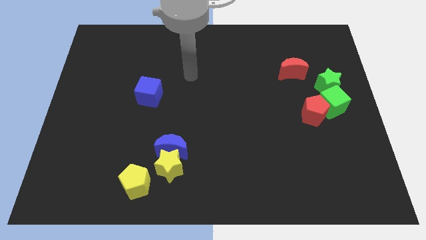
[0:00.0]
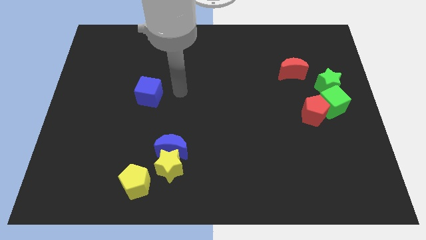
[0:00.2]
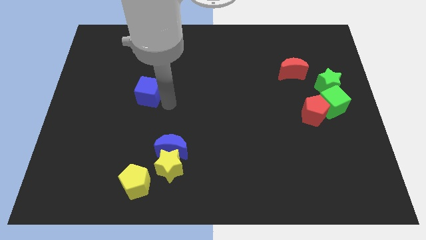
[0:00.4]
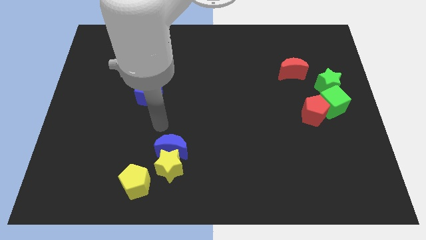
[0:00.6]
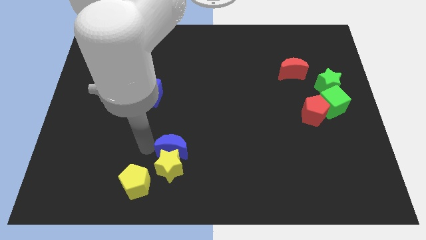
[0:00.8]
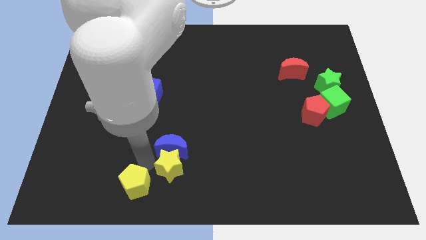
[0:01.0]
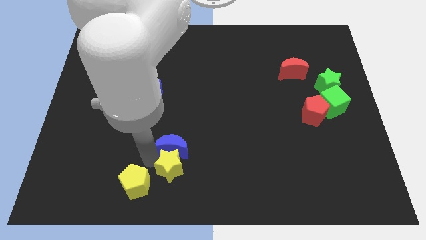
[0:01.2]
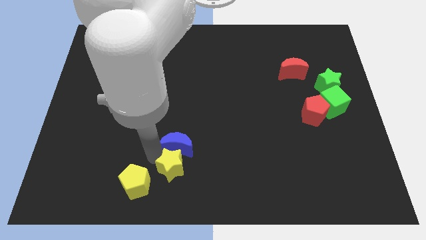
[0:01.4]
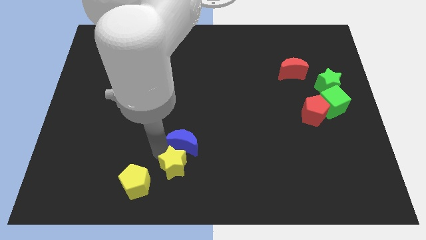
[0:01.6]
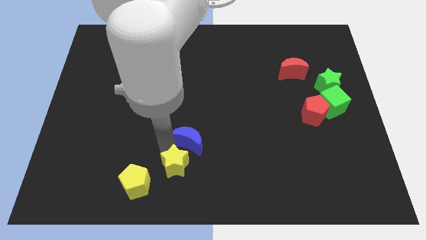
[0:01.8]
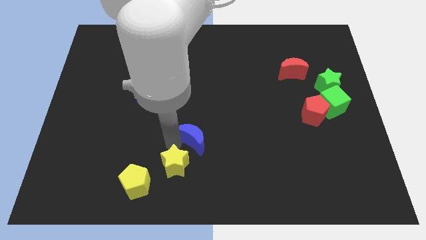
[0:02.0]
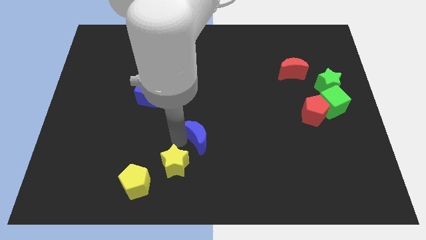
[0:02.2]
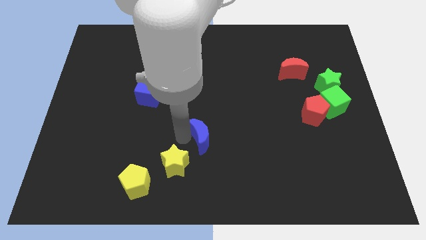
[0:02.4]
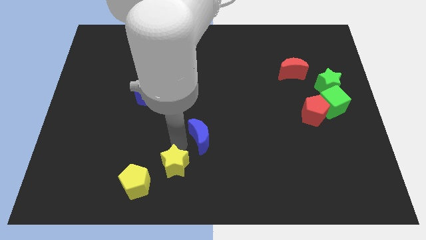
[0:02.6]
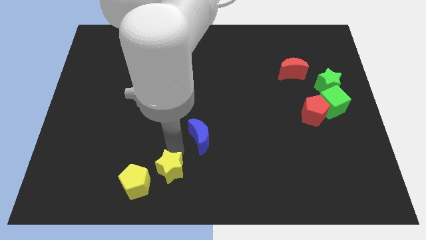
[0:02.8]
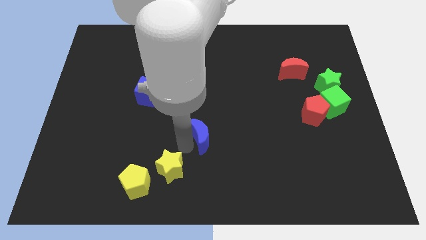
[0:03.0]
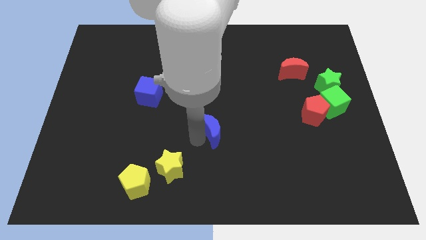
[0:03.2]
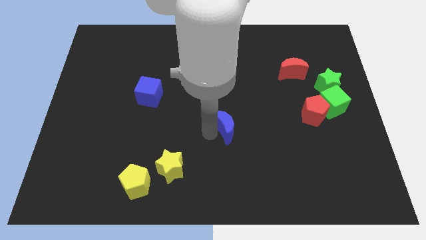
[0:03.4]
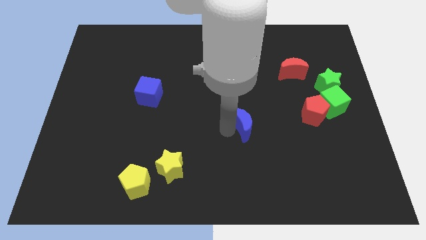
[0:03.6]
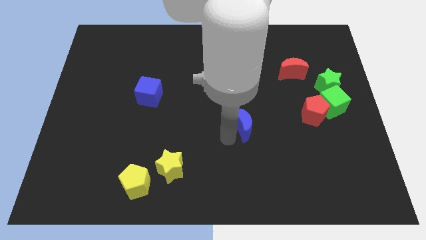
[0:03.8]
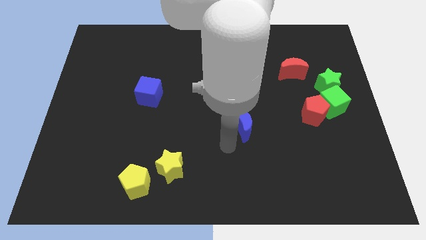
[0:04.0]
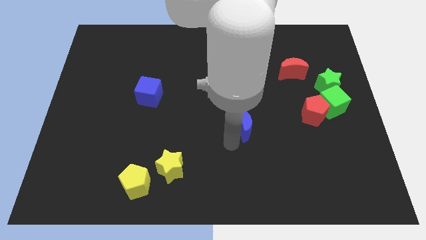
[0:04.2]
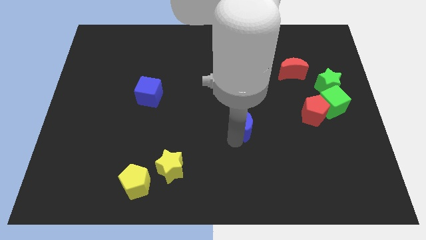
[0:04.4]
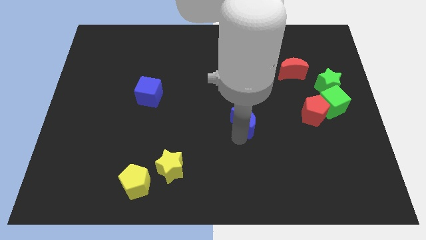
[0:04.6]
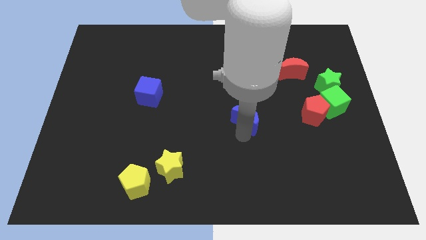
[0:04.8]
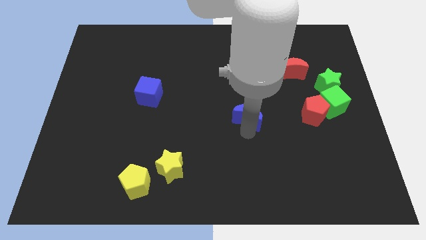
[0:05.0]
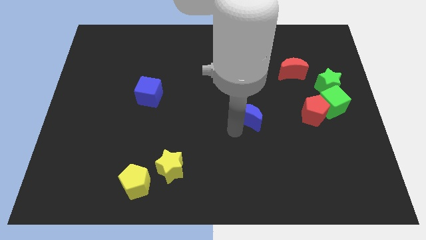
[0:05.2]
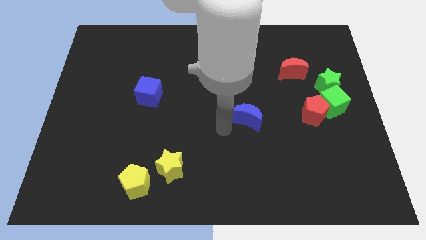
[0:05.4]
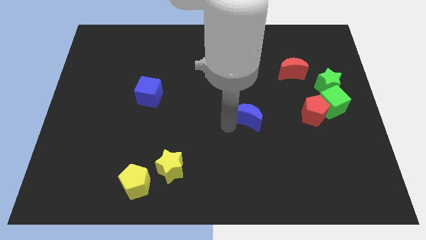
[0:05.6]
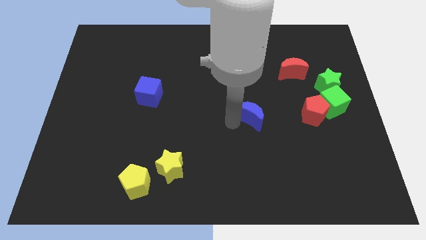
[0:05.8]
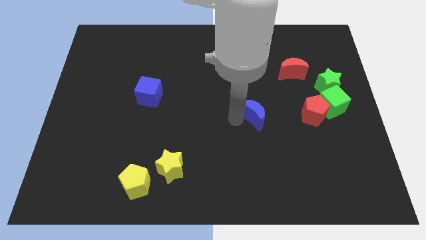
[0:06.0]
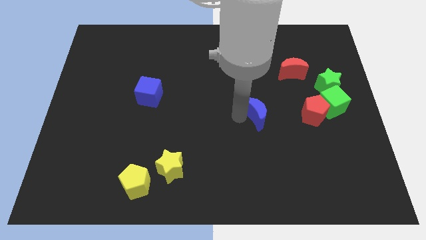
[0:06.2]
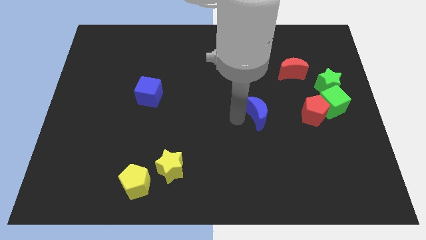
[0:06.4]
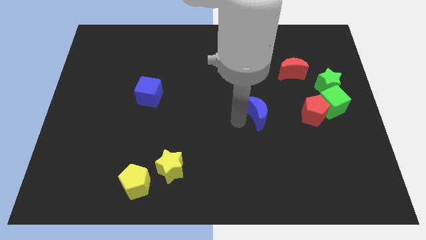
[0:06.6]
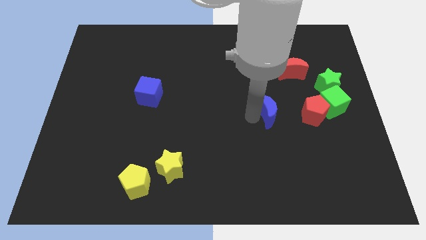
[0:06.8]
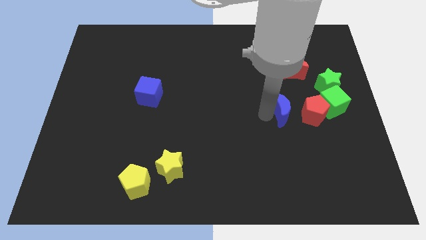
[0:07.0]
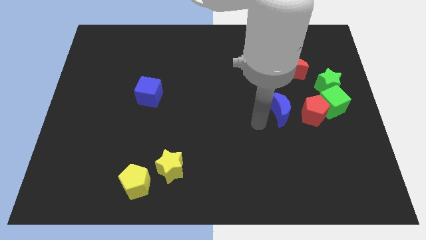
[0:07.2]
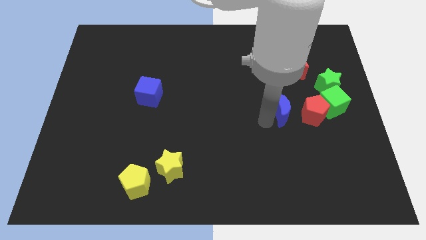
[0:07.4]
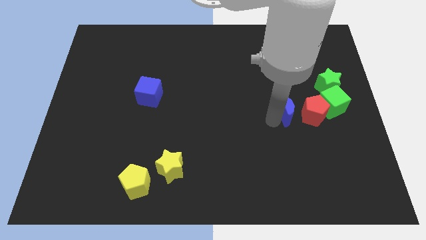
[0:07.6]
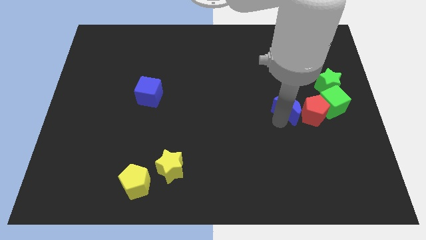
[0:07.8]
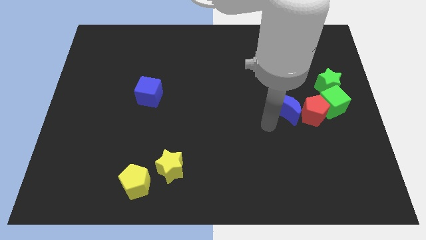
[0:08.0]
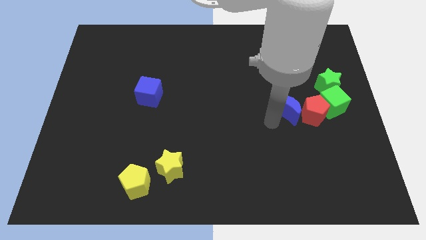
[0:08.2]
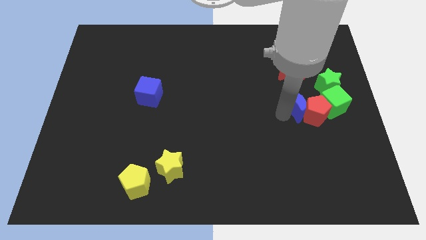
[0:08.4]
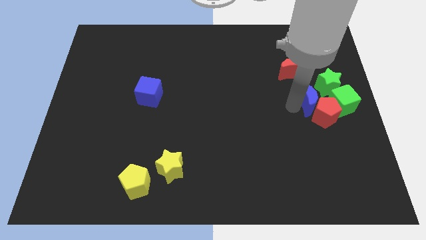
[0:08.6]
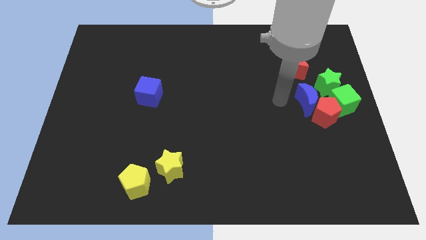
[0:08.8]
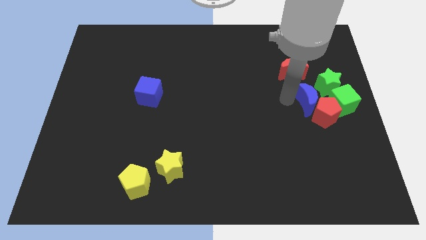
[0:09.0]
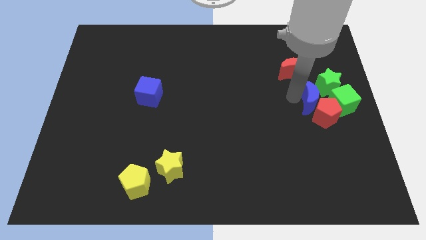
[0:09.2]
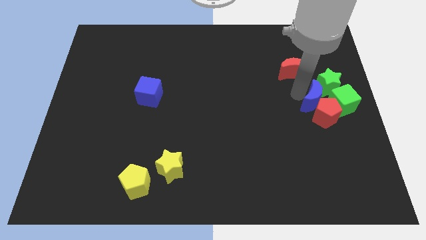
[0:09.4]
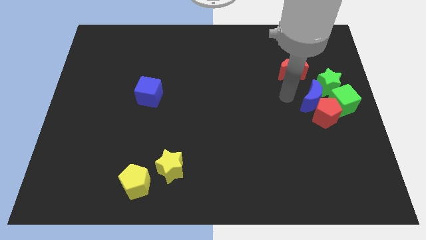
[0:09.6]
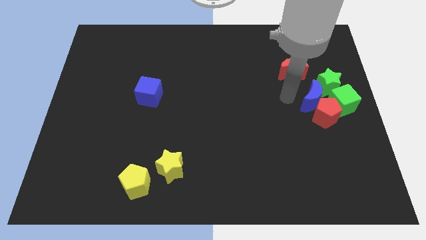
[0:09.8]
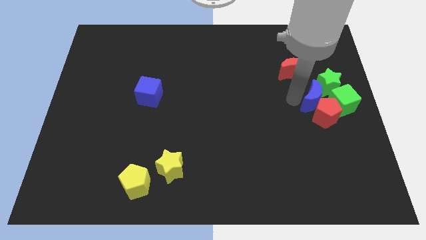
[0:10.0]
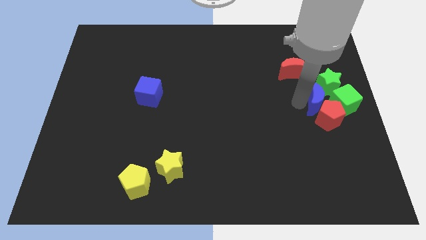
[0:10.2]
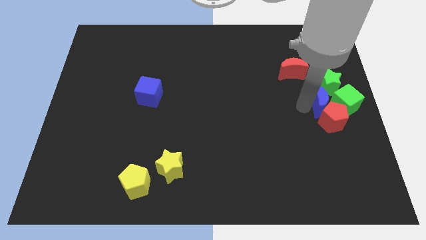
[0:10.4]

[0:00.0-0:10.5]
move the blue moon close to the green cube

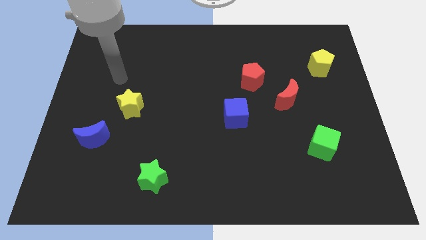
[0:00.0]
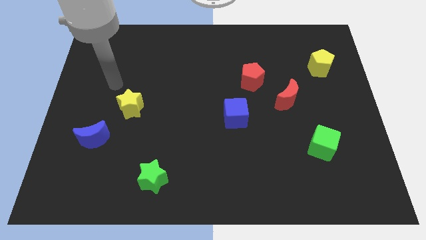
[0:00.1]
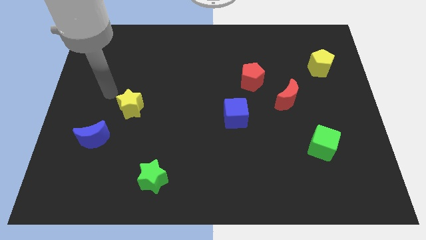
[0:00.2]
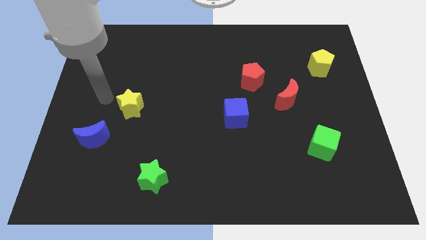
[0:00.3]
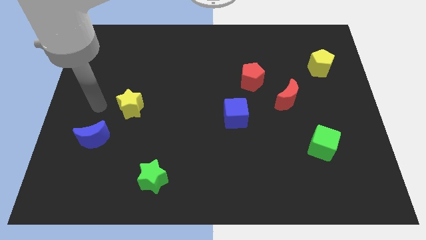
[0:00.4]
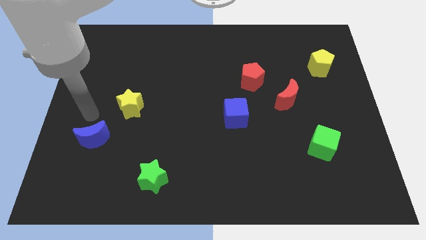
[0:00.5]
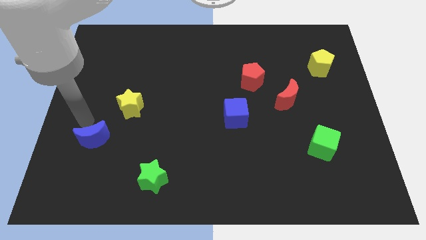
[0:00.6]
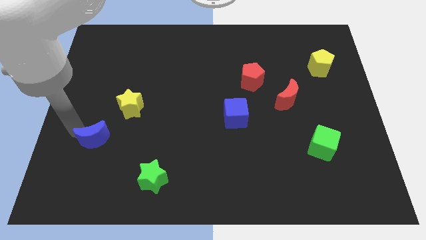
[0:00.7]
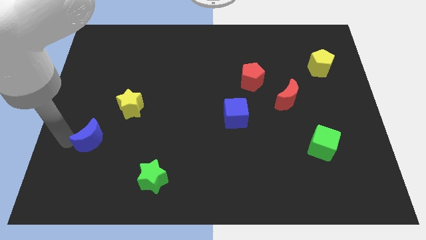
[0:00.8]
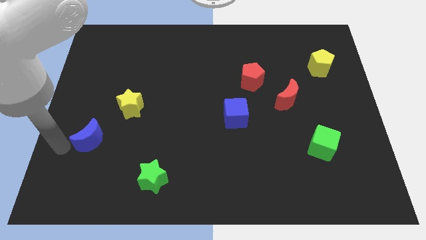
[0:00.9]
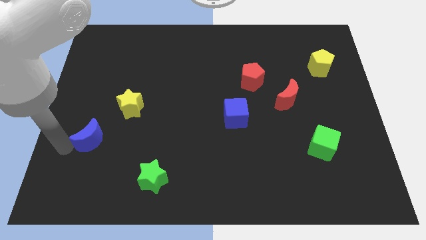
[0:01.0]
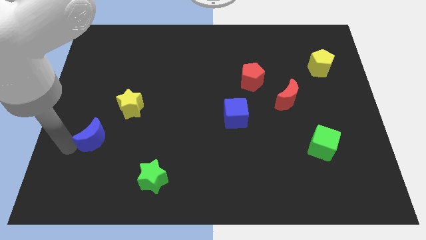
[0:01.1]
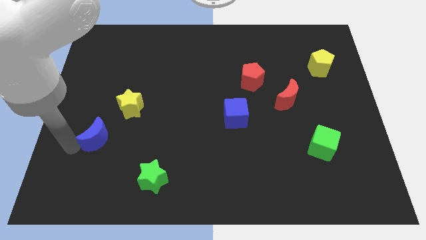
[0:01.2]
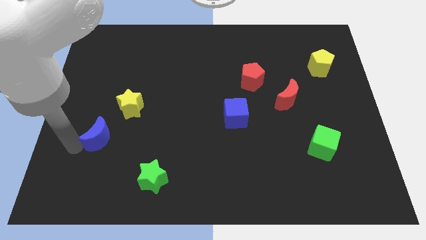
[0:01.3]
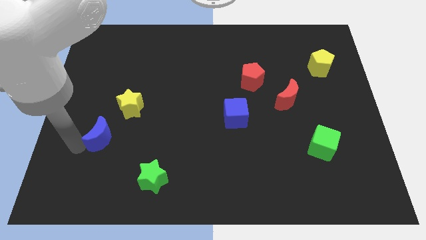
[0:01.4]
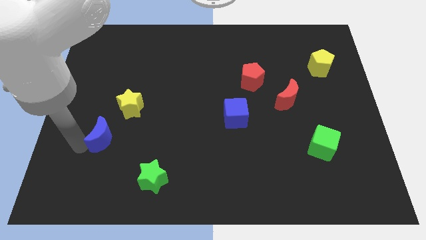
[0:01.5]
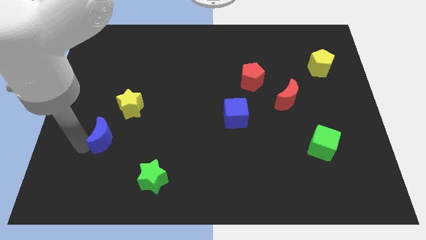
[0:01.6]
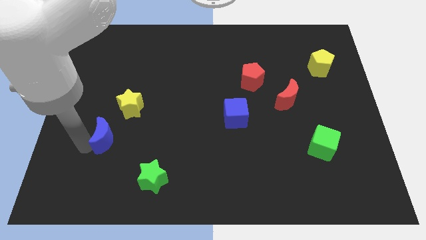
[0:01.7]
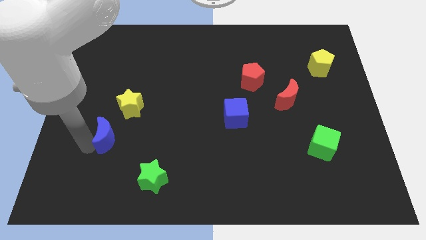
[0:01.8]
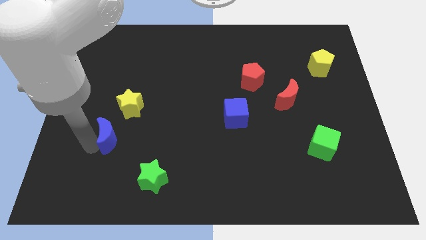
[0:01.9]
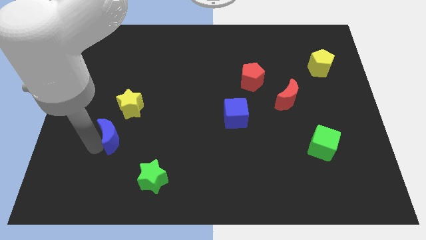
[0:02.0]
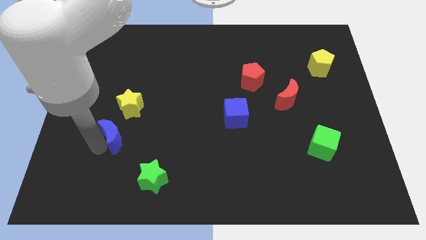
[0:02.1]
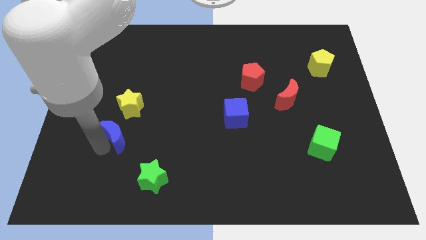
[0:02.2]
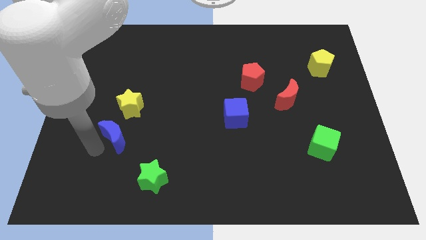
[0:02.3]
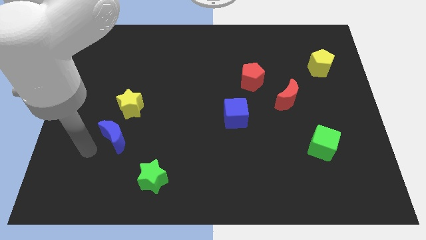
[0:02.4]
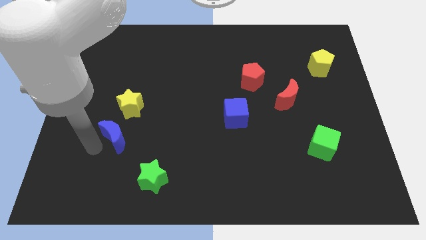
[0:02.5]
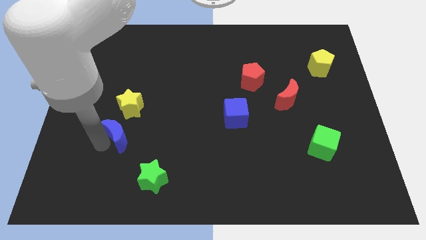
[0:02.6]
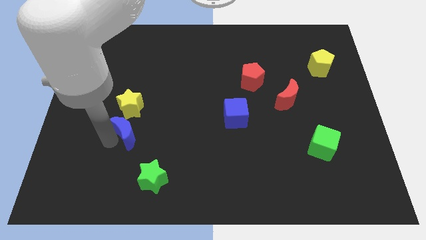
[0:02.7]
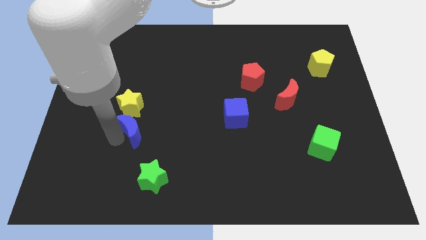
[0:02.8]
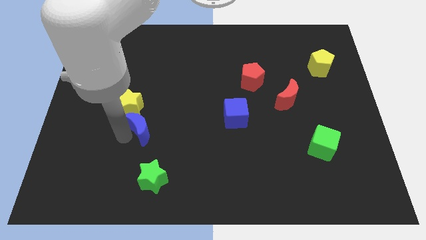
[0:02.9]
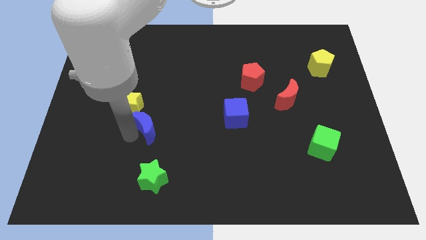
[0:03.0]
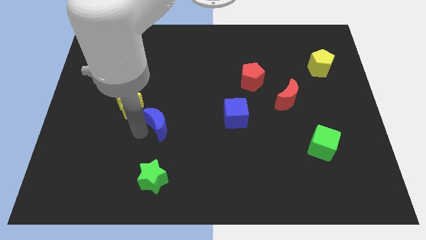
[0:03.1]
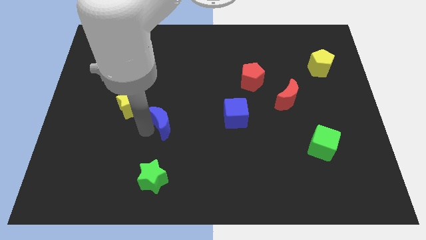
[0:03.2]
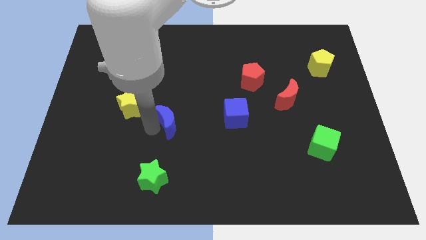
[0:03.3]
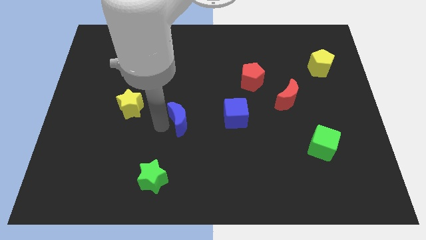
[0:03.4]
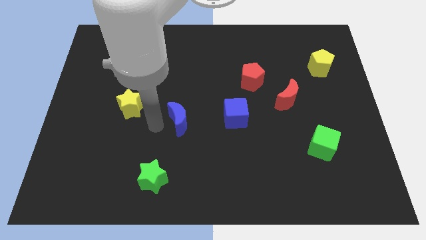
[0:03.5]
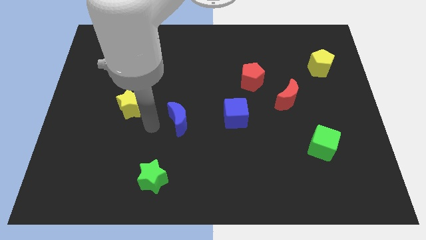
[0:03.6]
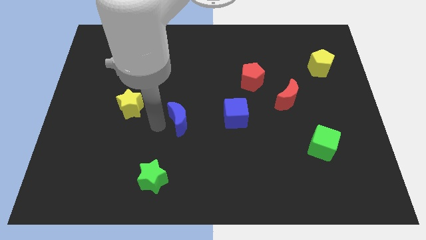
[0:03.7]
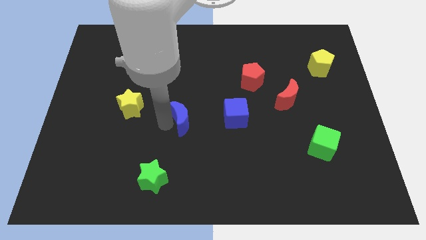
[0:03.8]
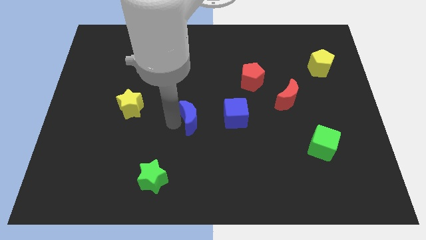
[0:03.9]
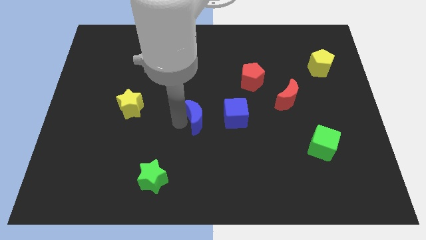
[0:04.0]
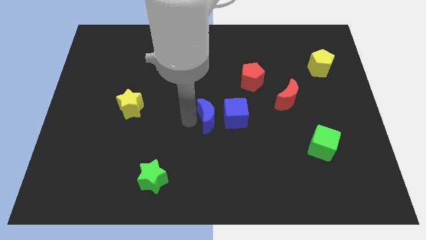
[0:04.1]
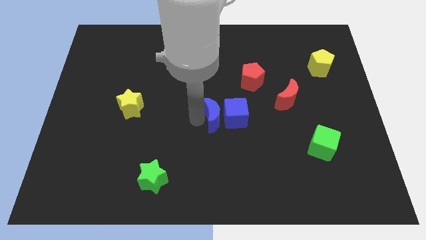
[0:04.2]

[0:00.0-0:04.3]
push the blue moon towards the blue cube
